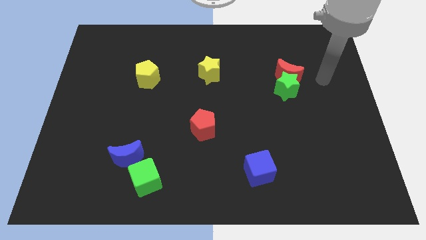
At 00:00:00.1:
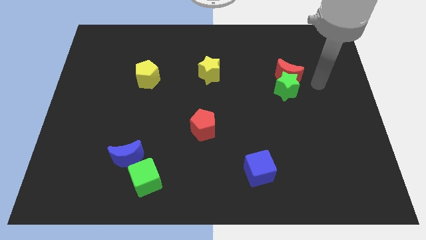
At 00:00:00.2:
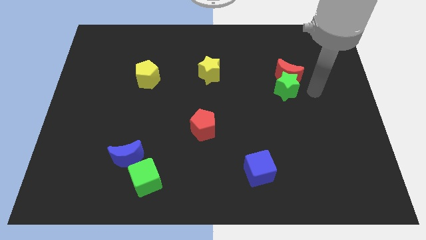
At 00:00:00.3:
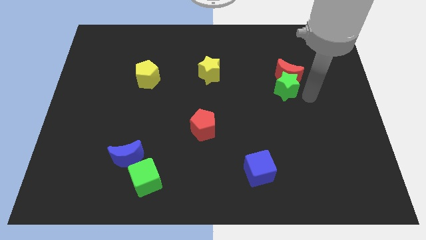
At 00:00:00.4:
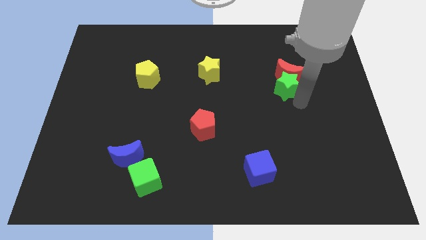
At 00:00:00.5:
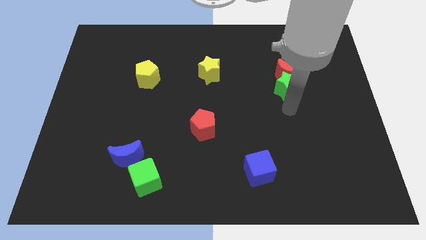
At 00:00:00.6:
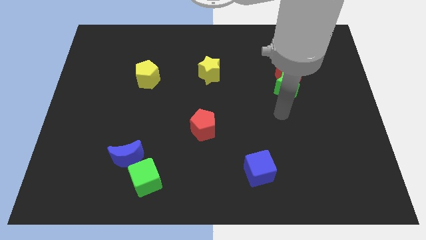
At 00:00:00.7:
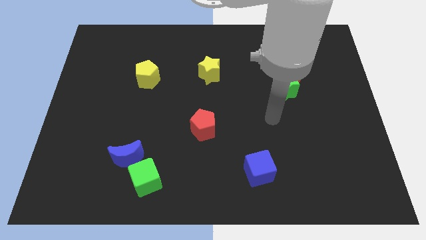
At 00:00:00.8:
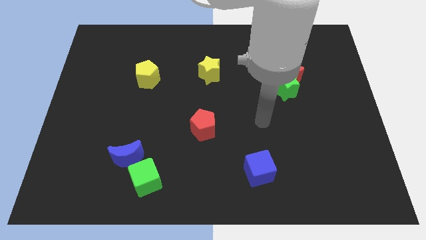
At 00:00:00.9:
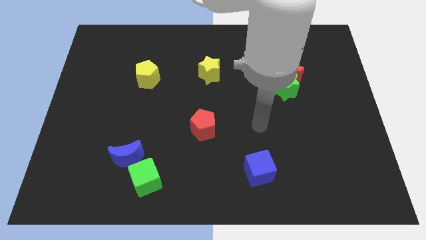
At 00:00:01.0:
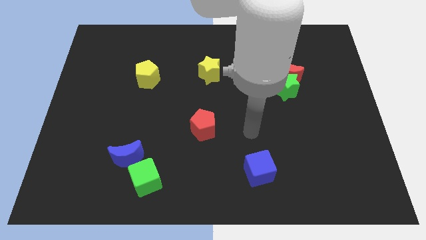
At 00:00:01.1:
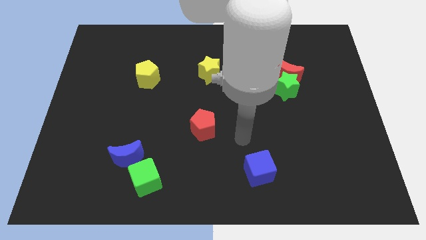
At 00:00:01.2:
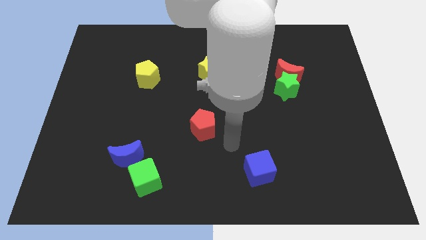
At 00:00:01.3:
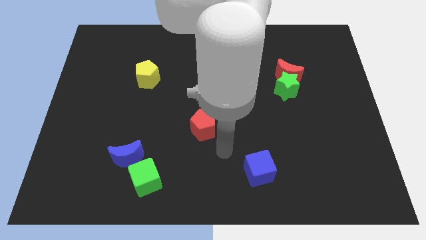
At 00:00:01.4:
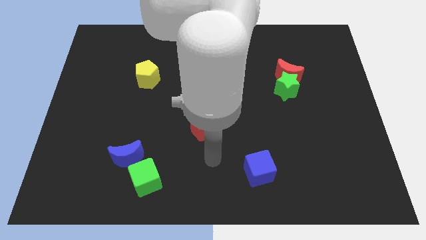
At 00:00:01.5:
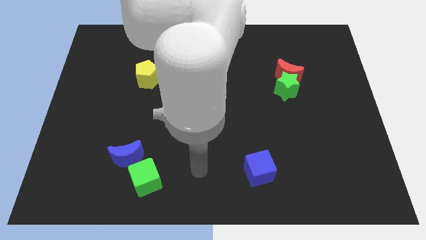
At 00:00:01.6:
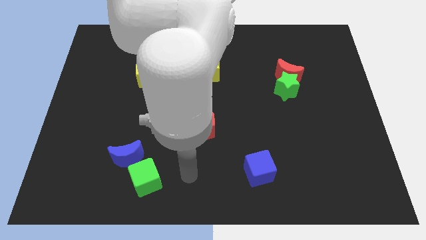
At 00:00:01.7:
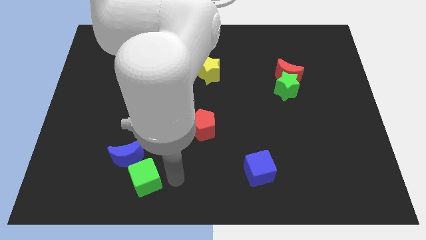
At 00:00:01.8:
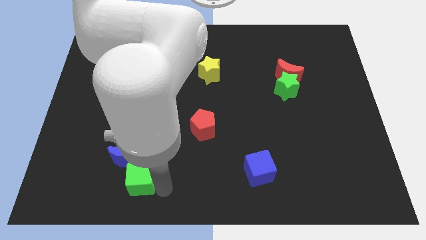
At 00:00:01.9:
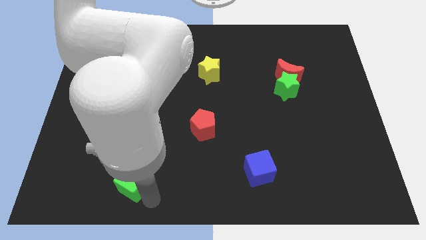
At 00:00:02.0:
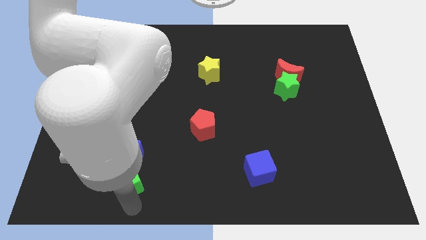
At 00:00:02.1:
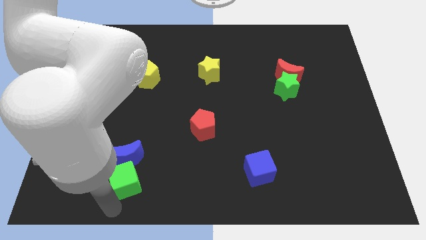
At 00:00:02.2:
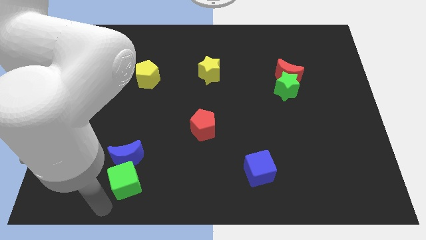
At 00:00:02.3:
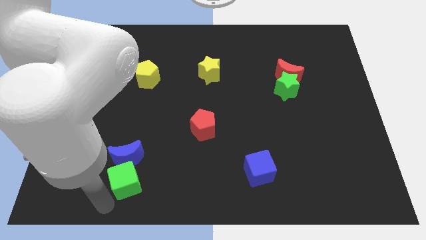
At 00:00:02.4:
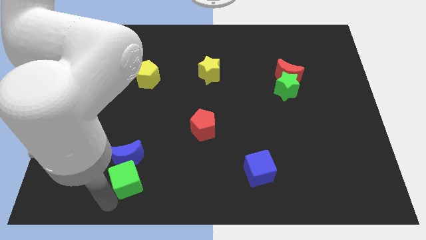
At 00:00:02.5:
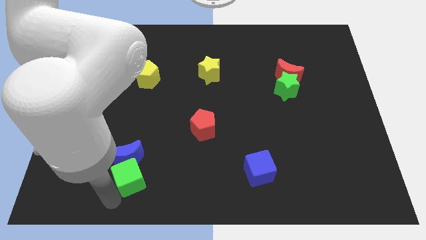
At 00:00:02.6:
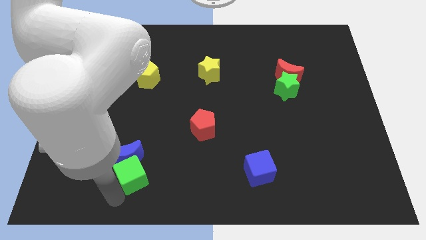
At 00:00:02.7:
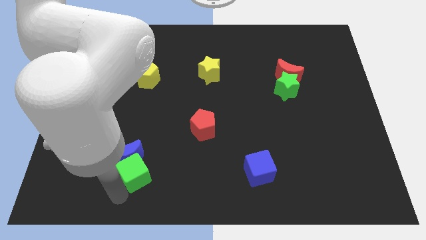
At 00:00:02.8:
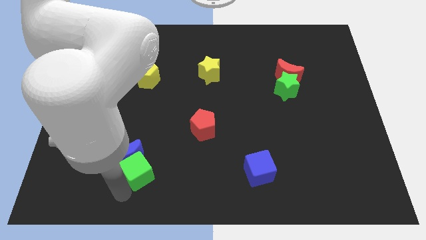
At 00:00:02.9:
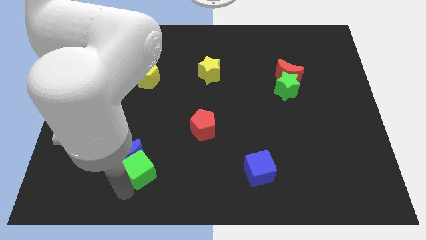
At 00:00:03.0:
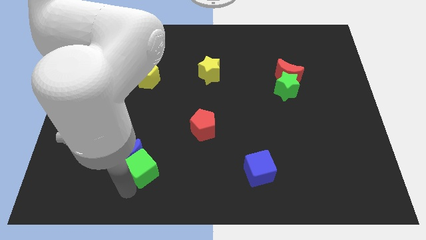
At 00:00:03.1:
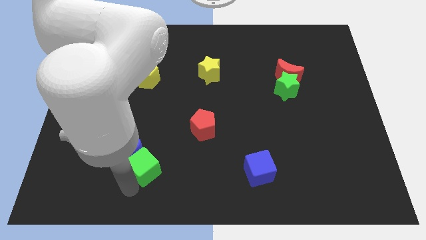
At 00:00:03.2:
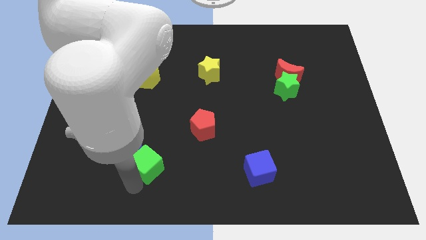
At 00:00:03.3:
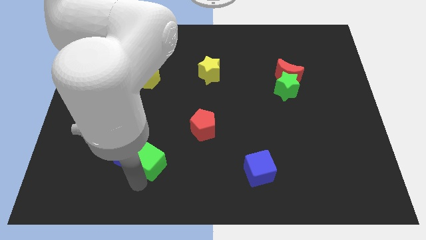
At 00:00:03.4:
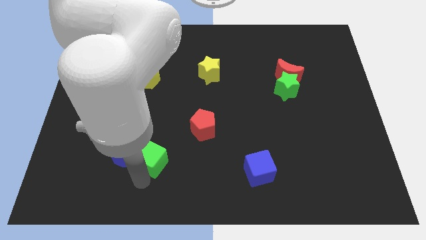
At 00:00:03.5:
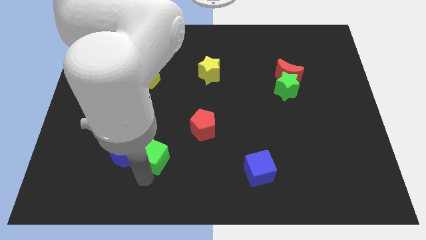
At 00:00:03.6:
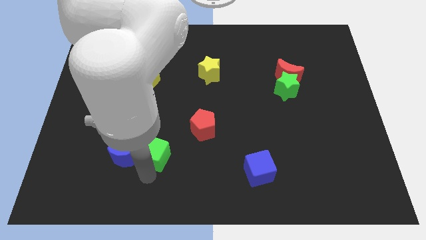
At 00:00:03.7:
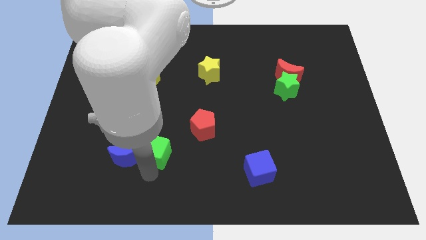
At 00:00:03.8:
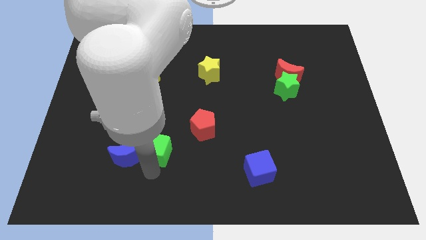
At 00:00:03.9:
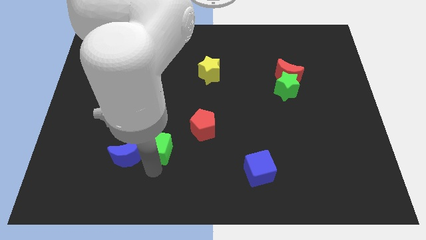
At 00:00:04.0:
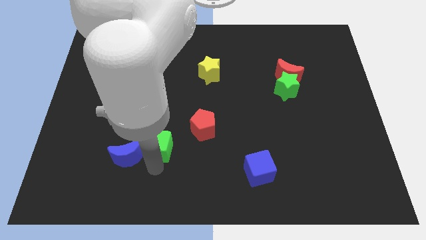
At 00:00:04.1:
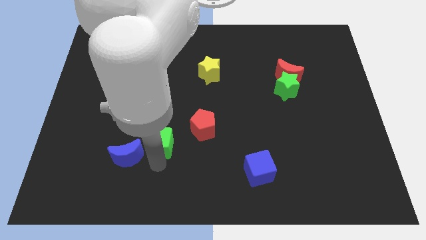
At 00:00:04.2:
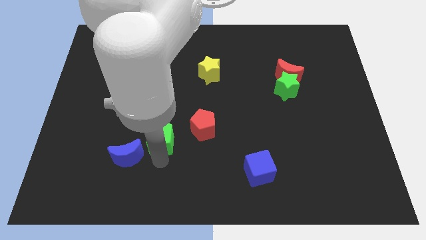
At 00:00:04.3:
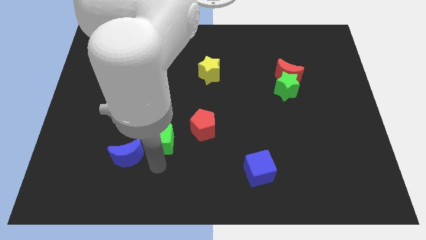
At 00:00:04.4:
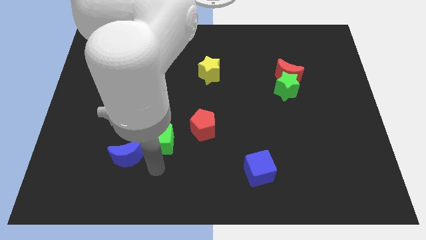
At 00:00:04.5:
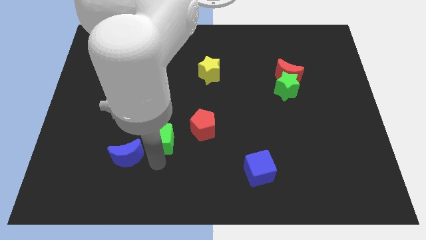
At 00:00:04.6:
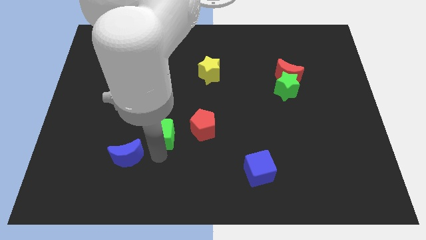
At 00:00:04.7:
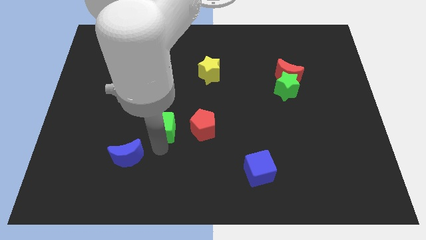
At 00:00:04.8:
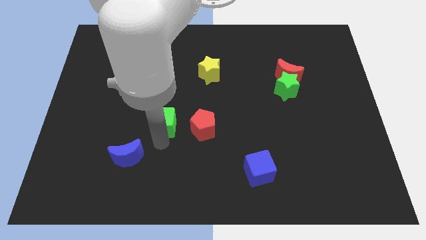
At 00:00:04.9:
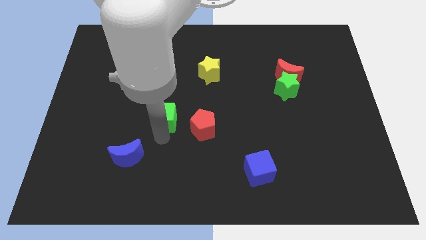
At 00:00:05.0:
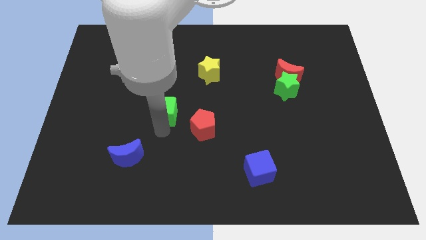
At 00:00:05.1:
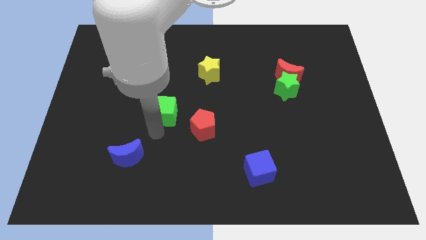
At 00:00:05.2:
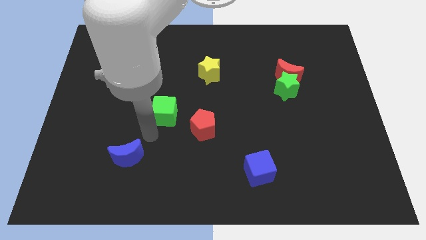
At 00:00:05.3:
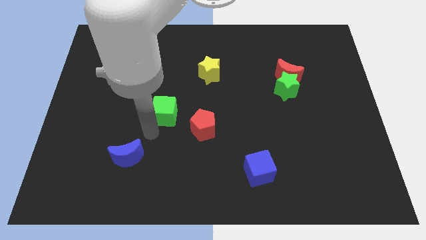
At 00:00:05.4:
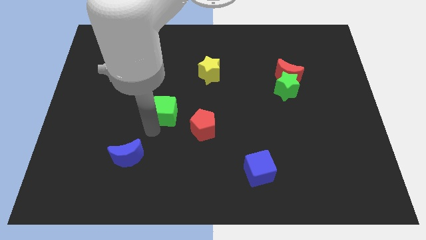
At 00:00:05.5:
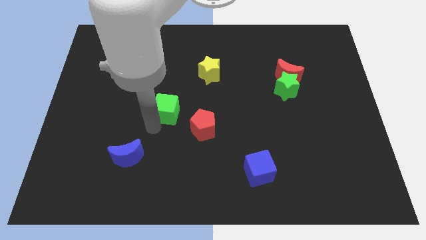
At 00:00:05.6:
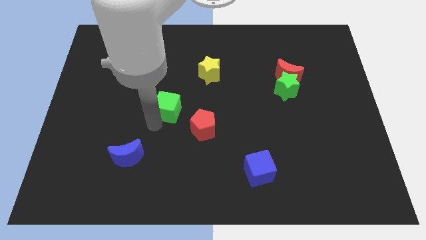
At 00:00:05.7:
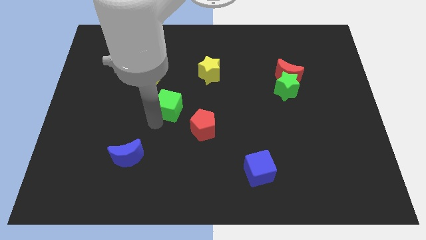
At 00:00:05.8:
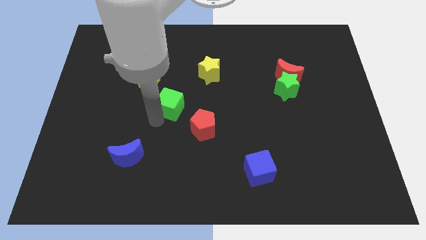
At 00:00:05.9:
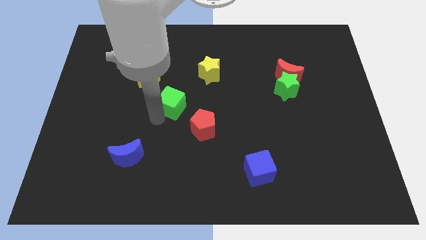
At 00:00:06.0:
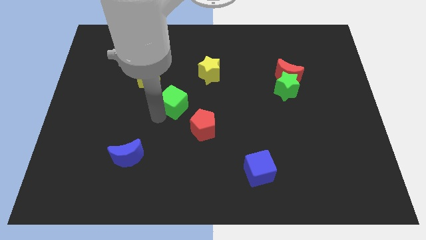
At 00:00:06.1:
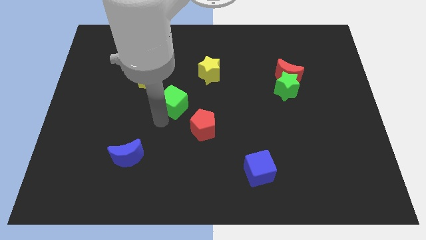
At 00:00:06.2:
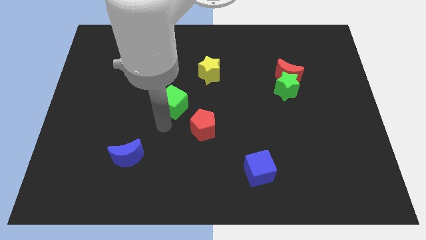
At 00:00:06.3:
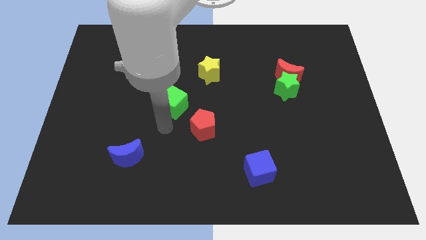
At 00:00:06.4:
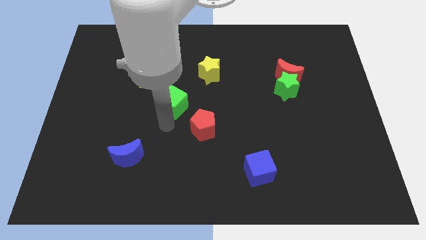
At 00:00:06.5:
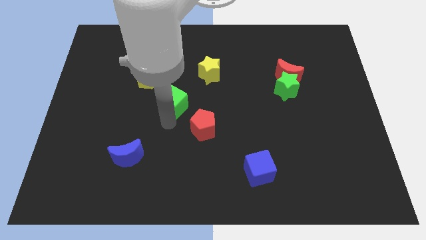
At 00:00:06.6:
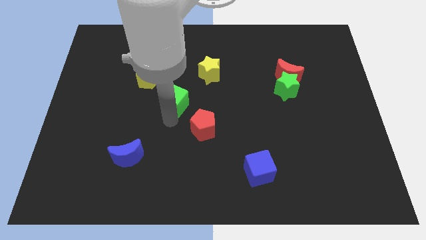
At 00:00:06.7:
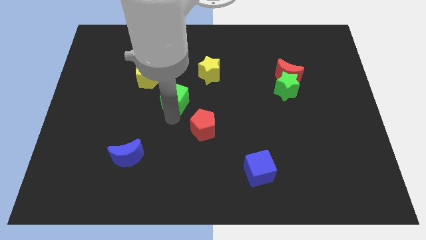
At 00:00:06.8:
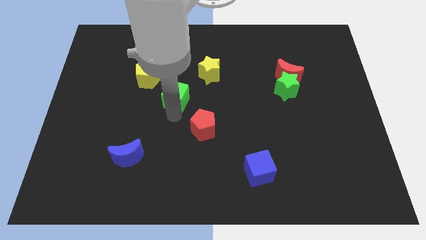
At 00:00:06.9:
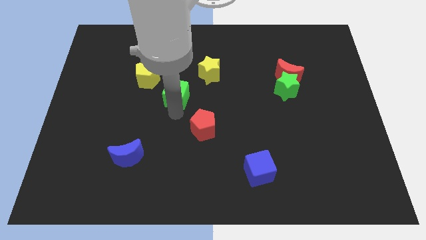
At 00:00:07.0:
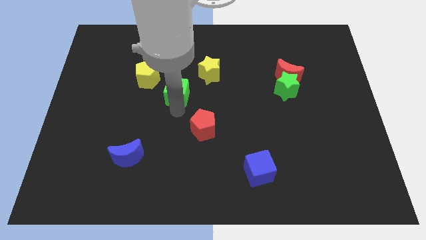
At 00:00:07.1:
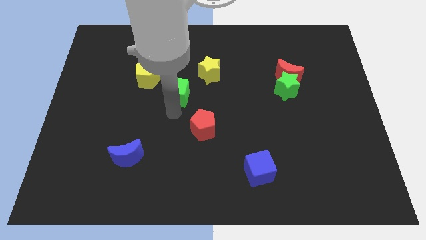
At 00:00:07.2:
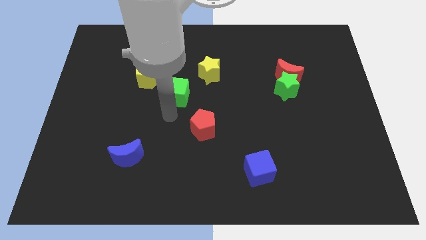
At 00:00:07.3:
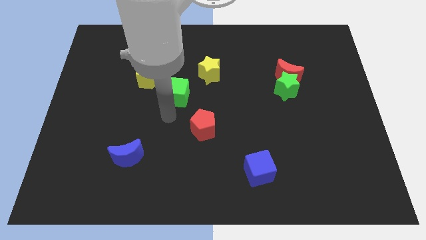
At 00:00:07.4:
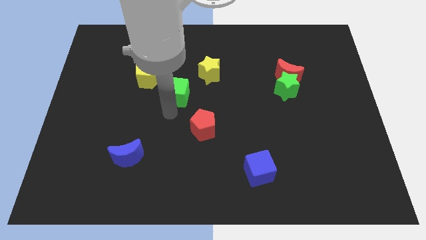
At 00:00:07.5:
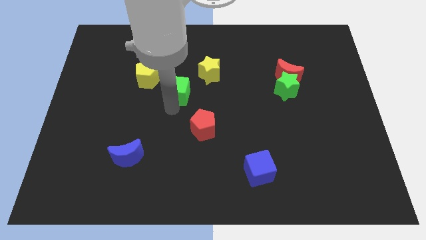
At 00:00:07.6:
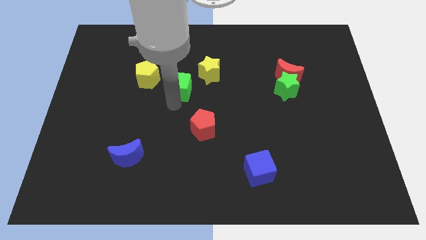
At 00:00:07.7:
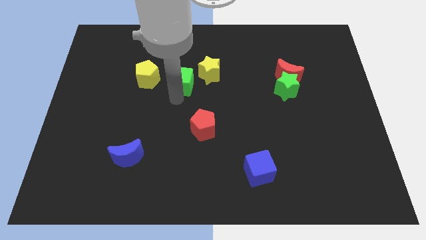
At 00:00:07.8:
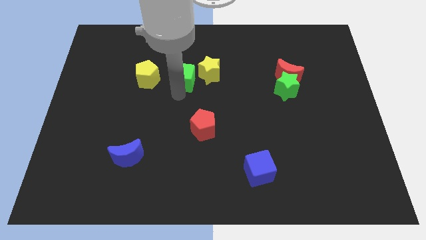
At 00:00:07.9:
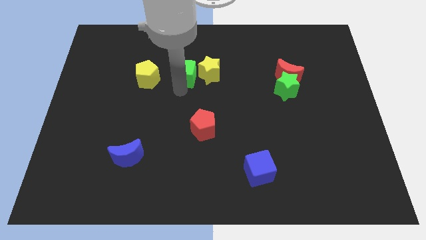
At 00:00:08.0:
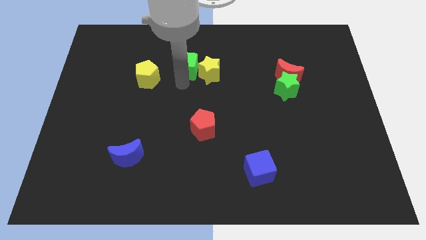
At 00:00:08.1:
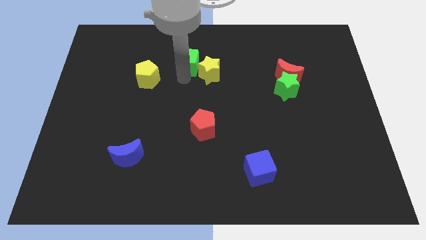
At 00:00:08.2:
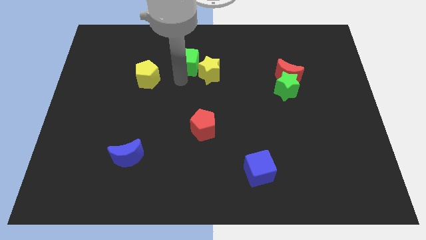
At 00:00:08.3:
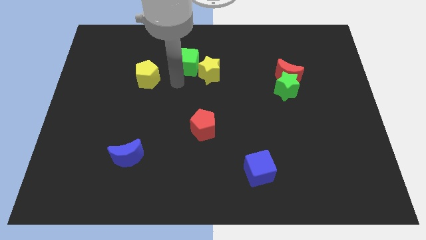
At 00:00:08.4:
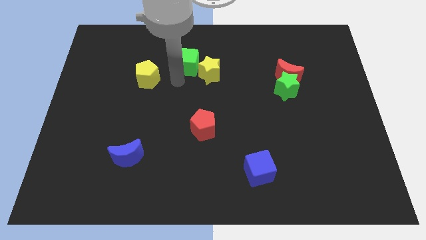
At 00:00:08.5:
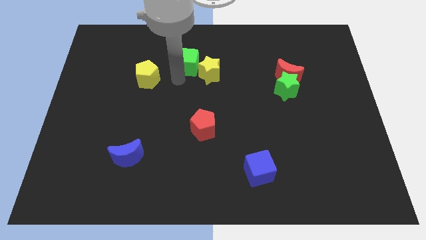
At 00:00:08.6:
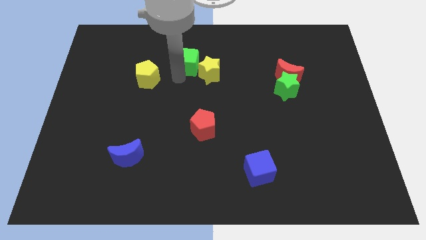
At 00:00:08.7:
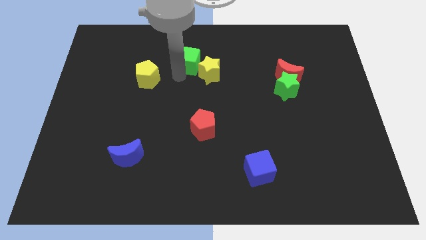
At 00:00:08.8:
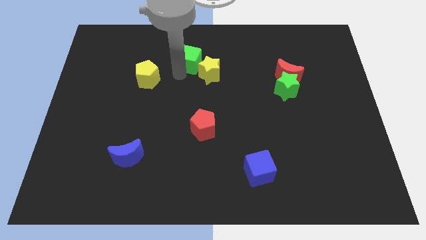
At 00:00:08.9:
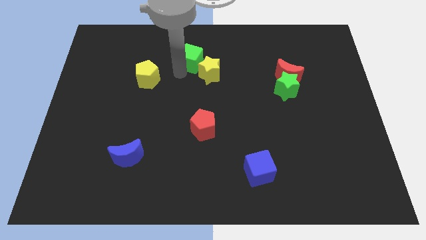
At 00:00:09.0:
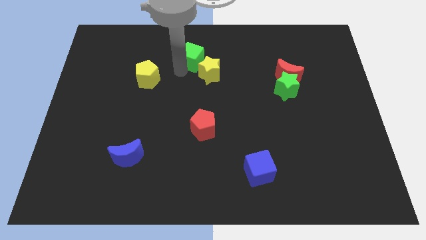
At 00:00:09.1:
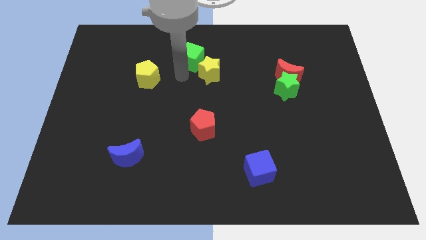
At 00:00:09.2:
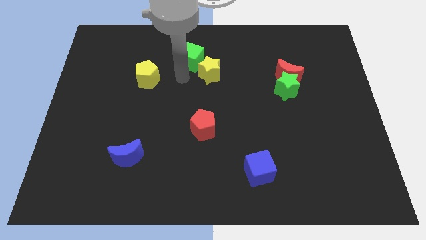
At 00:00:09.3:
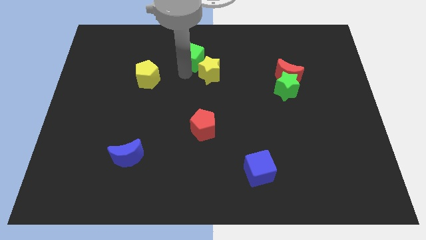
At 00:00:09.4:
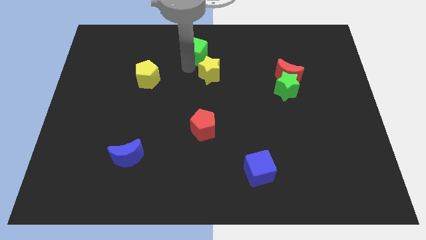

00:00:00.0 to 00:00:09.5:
push the green cube to the top
